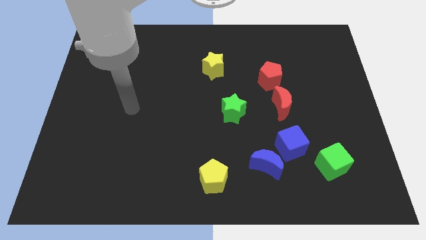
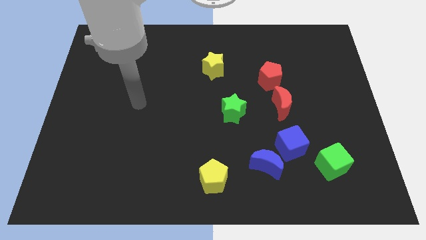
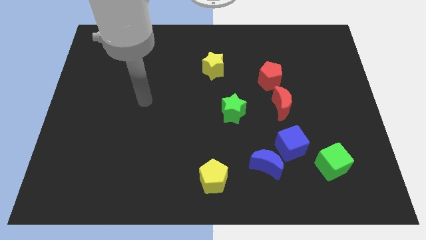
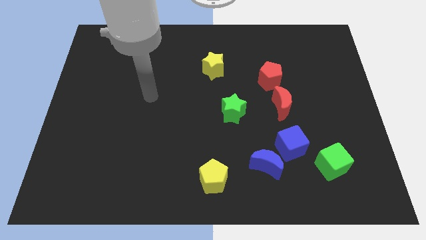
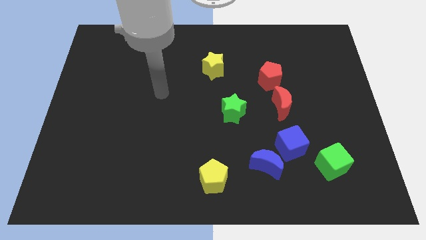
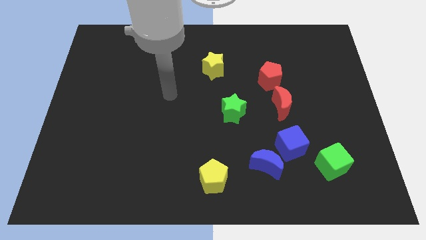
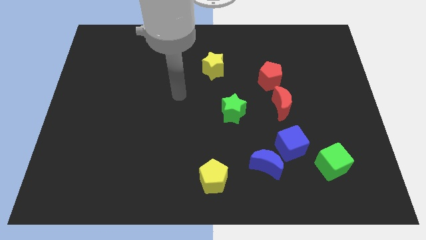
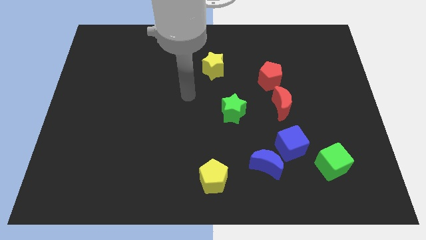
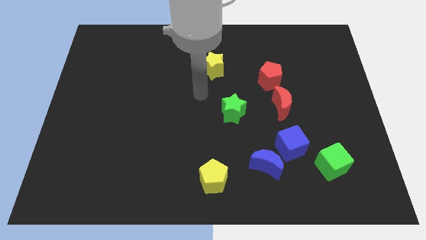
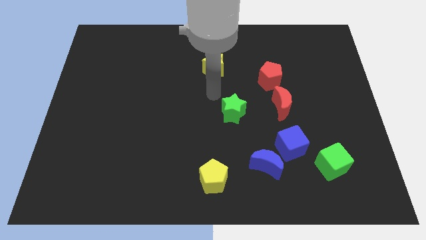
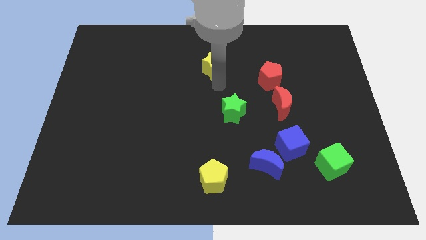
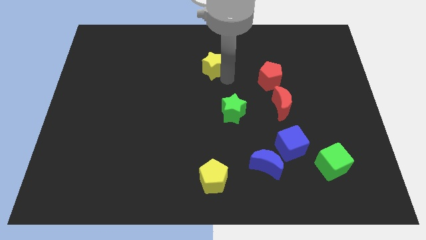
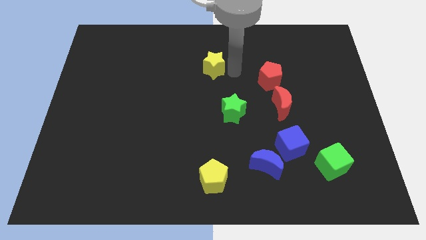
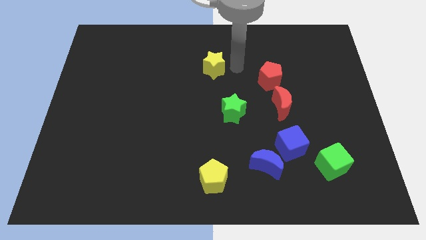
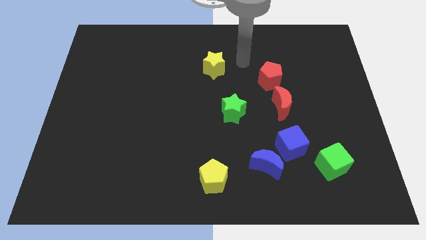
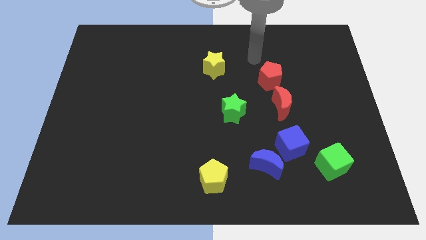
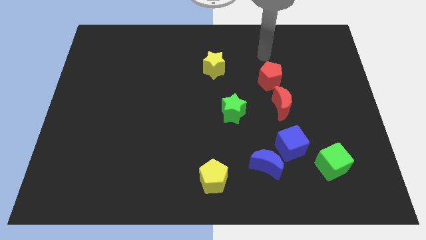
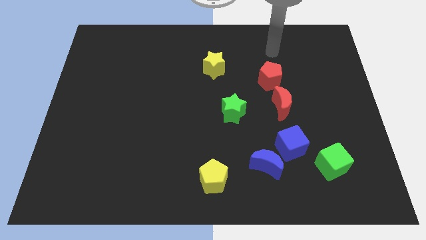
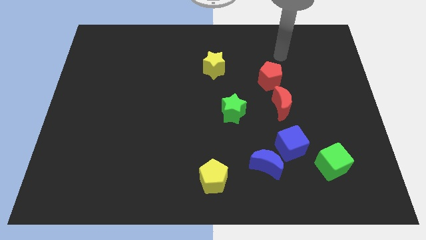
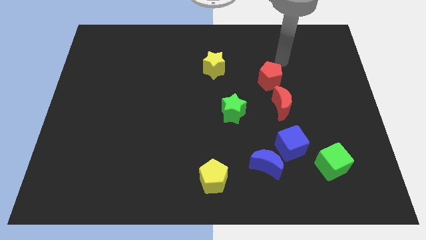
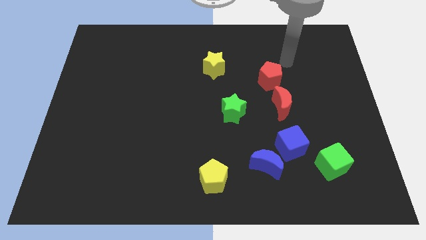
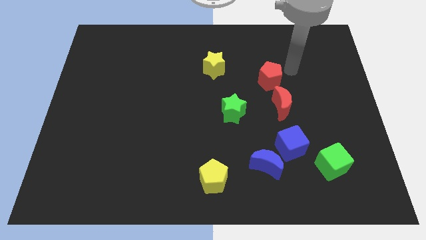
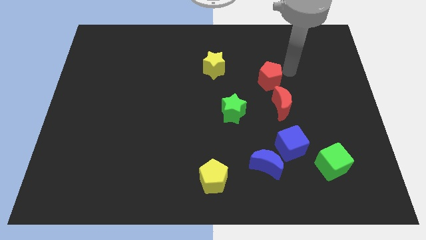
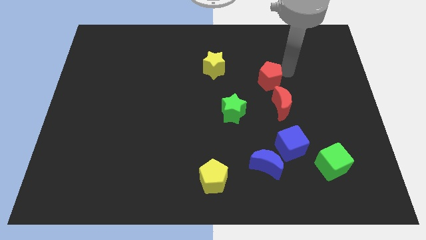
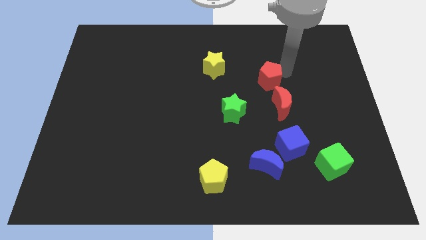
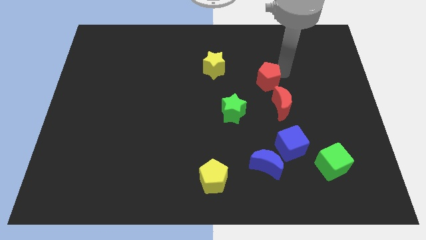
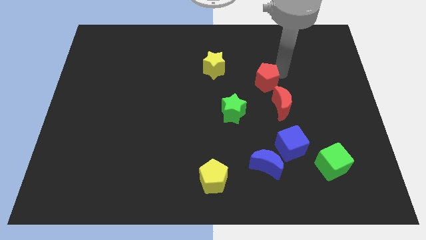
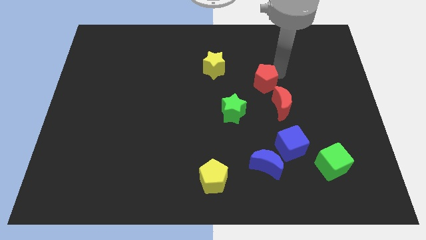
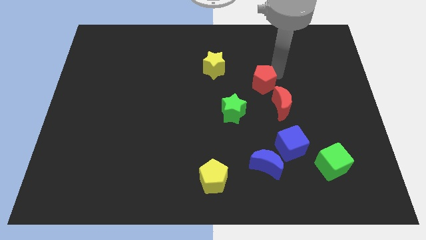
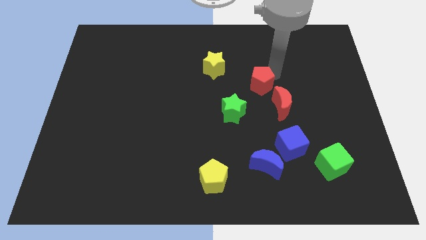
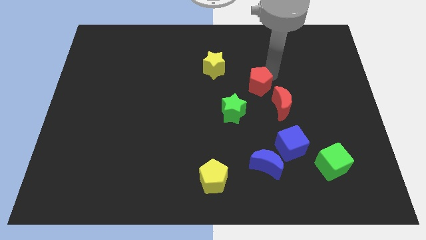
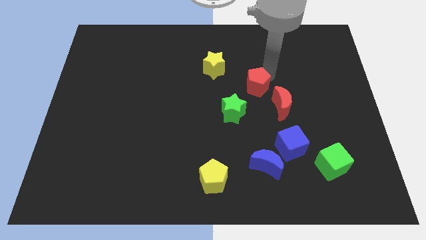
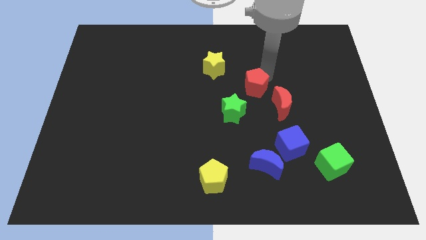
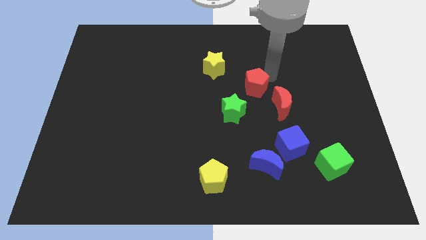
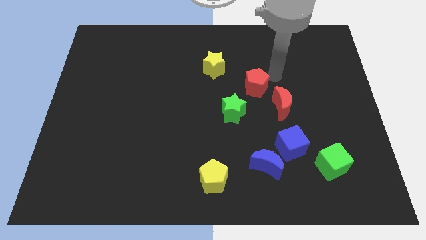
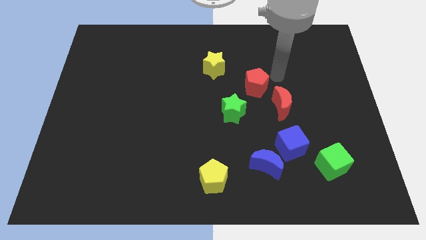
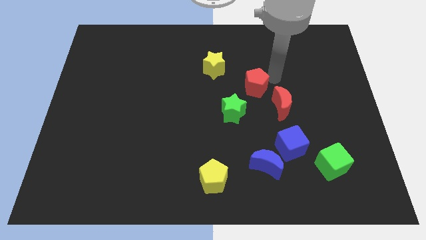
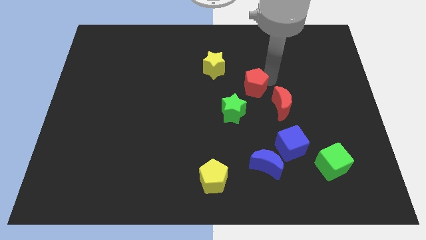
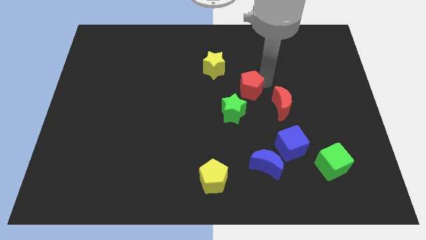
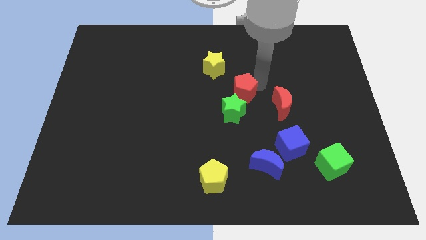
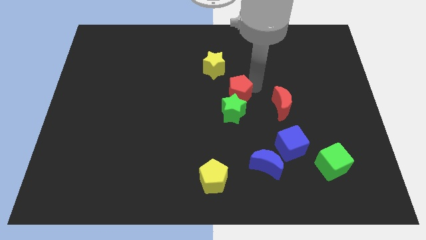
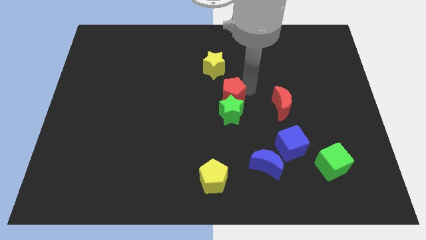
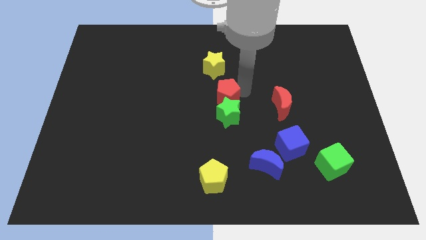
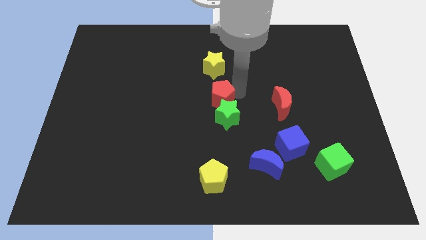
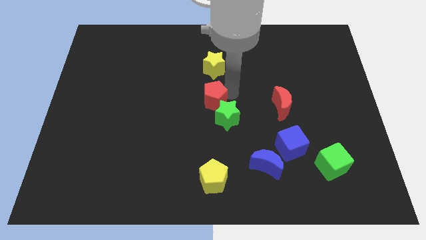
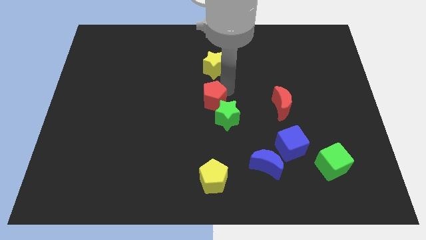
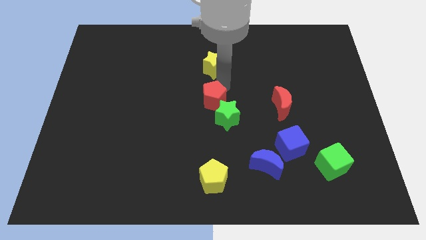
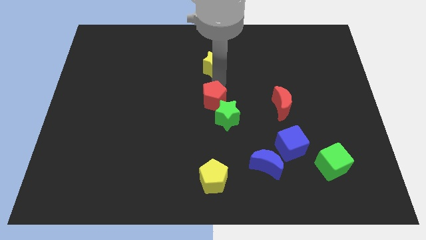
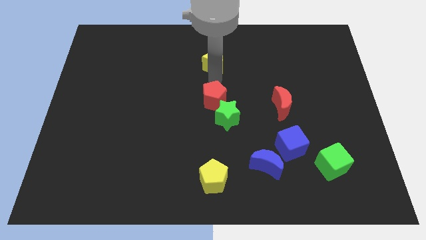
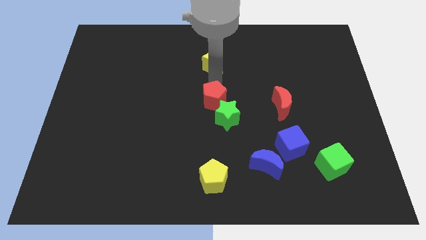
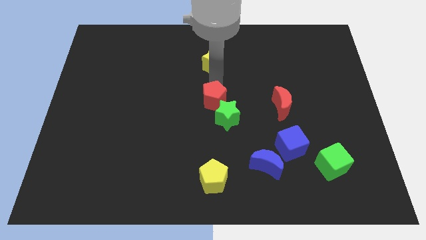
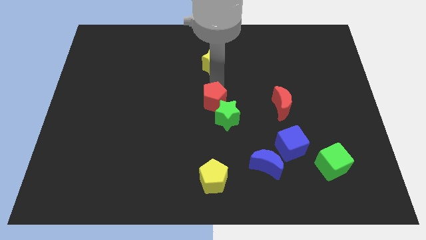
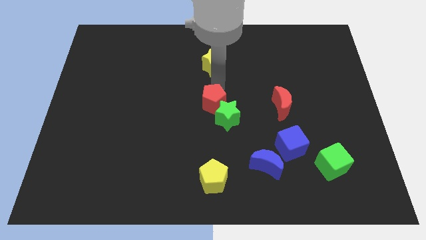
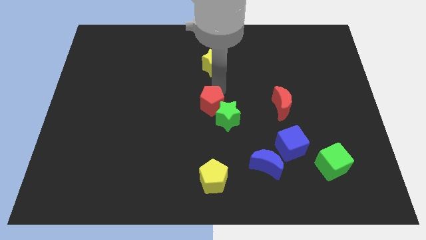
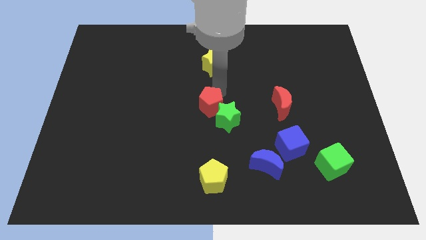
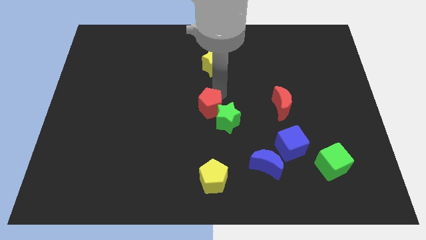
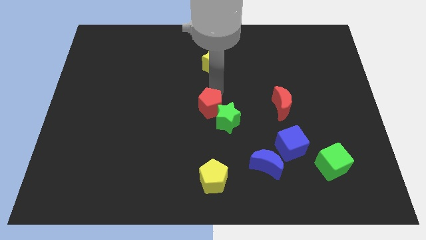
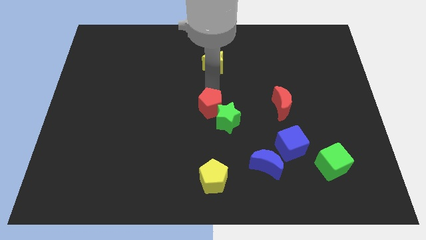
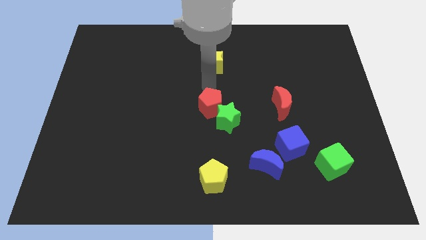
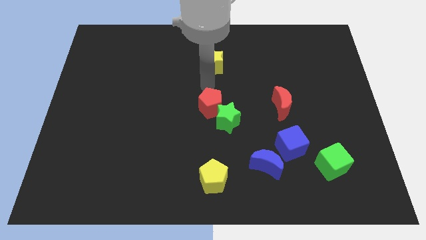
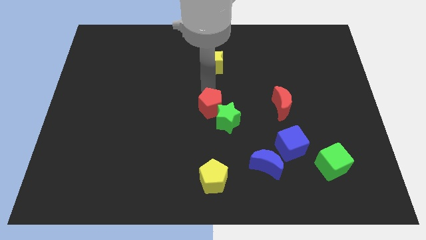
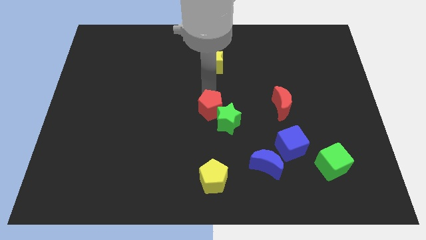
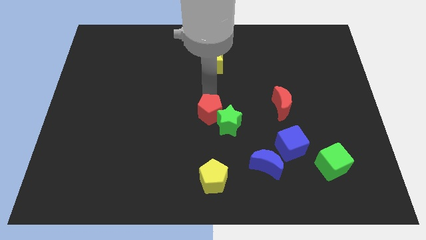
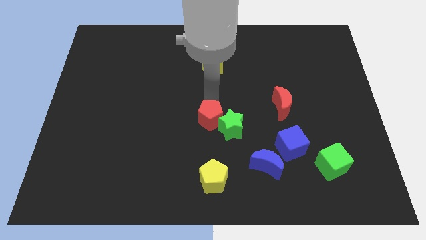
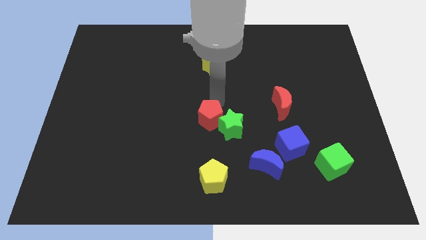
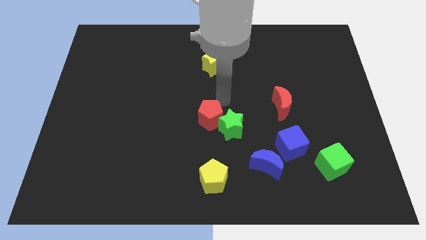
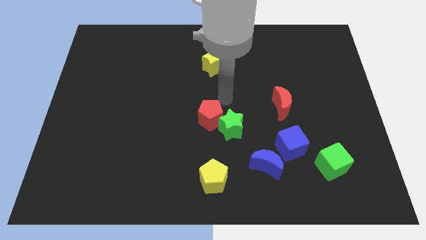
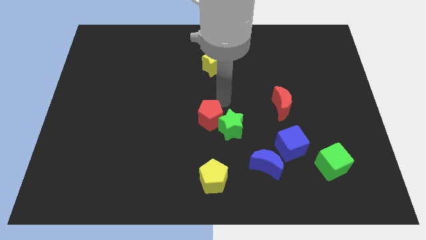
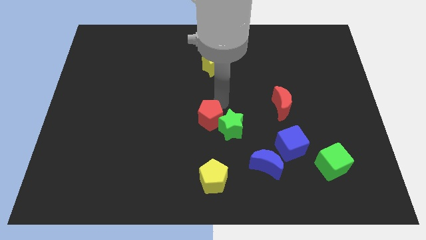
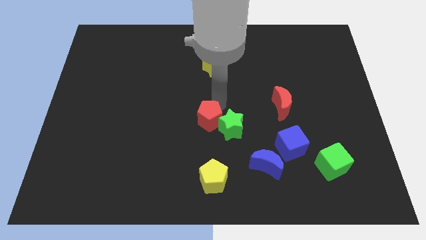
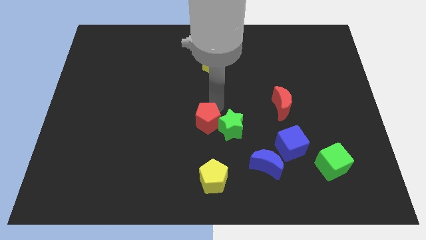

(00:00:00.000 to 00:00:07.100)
push the red pentagon downwards and then to the left

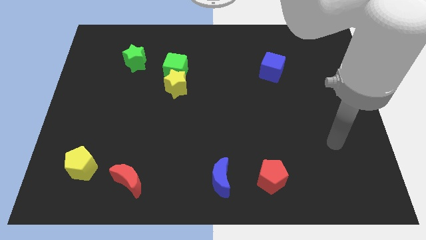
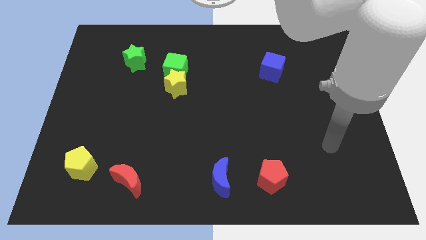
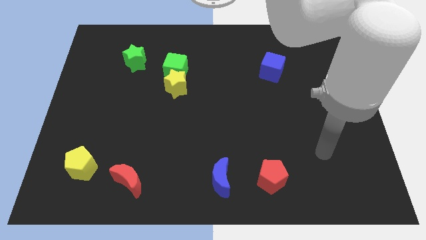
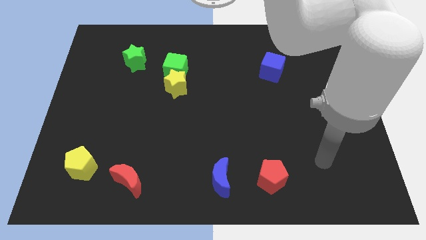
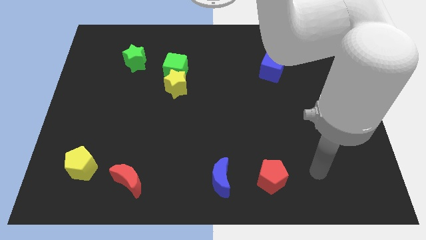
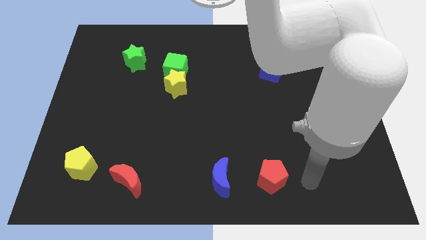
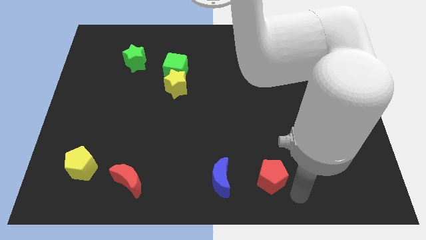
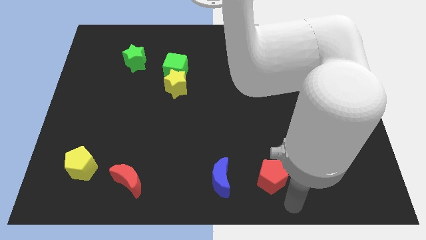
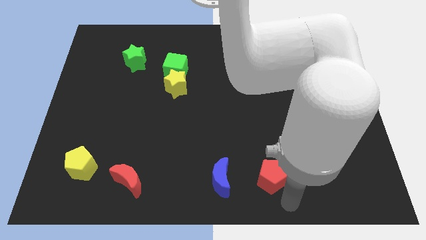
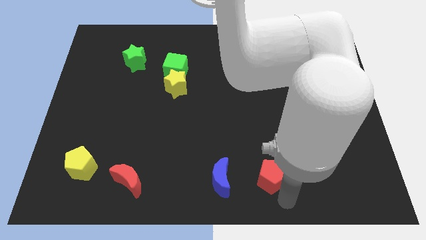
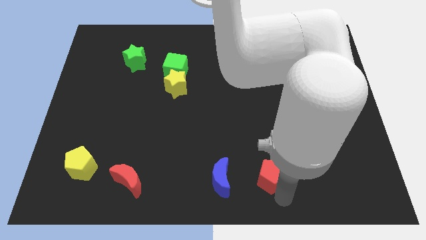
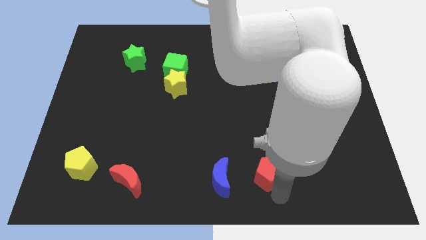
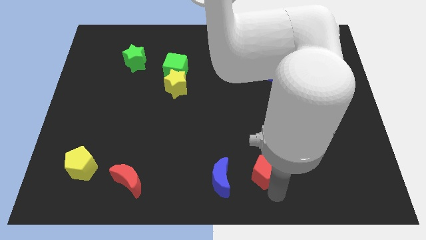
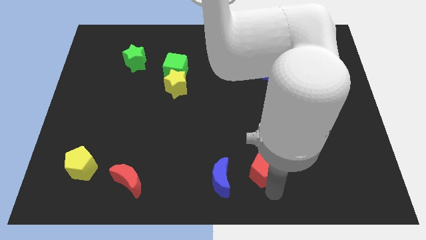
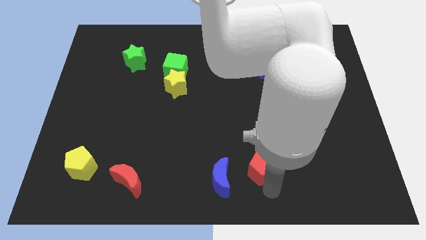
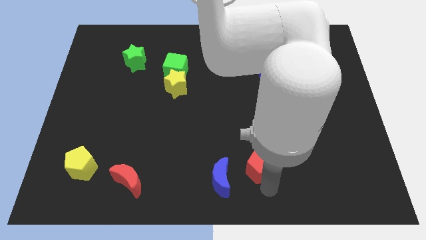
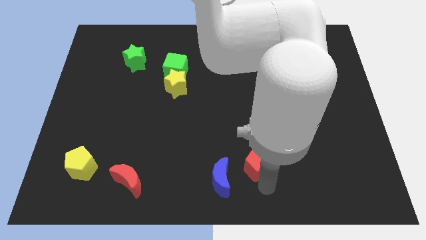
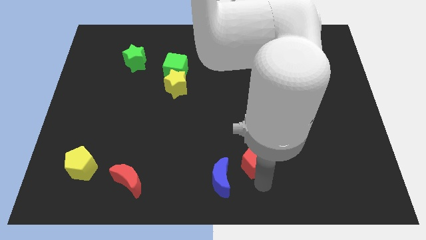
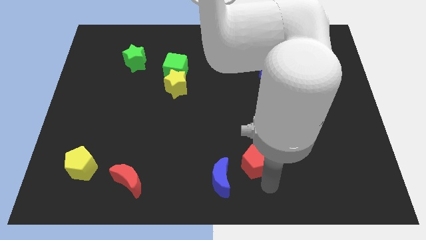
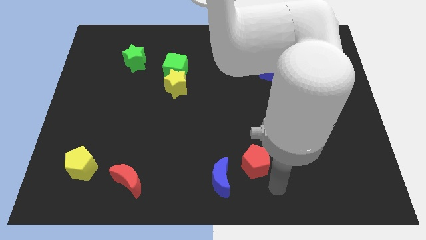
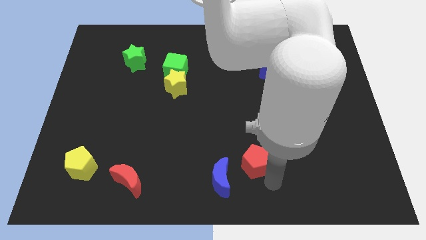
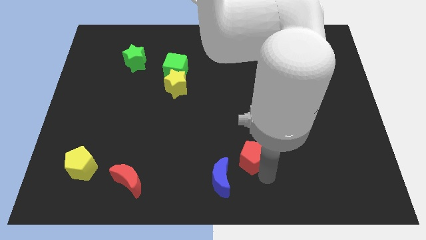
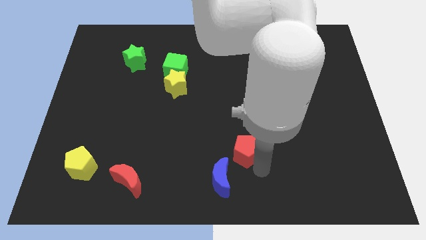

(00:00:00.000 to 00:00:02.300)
push the red pentagon slightly diagonally upwards and to the left
